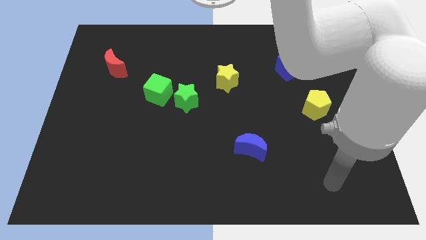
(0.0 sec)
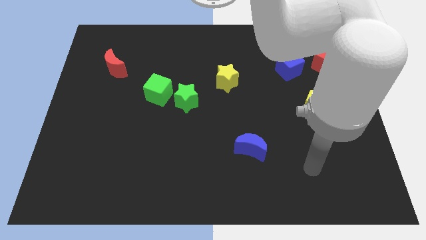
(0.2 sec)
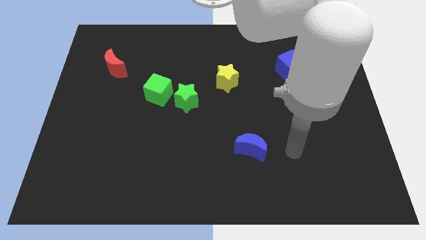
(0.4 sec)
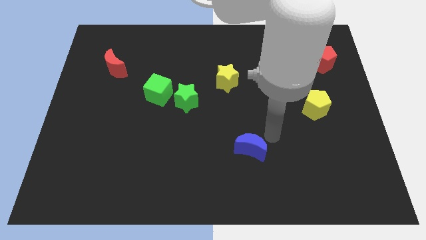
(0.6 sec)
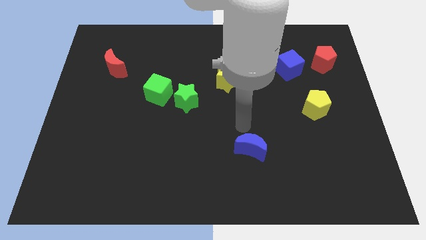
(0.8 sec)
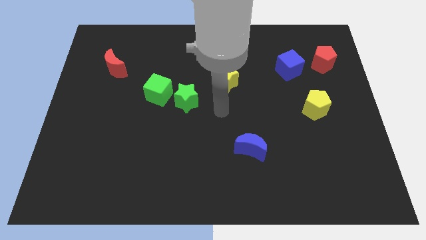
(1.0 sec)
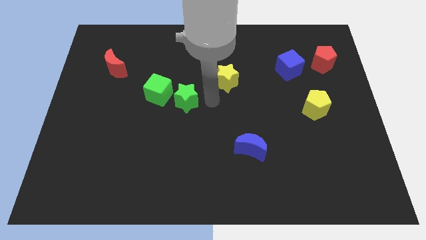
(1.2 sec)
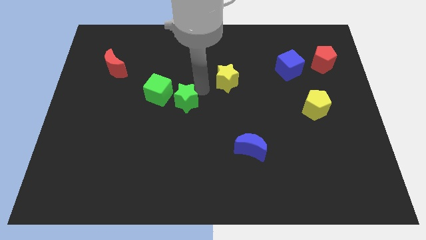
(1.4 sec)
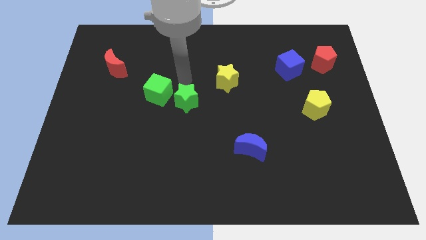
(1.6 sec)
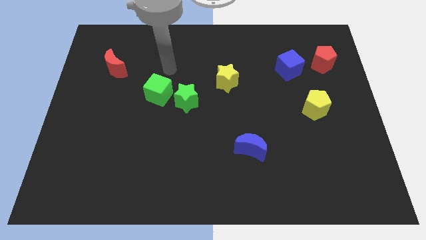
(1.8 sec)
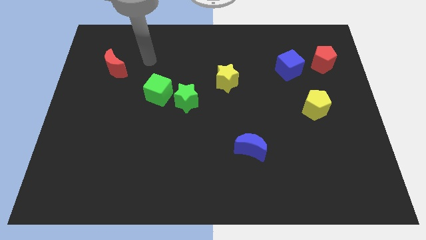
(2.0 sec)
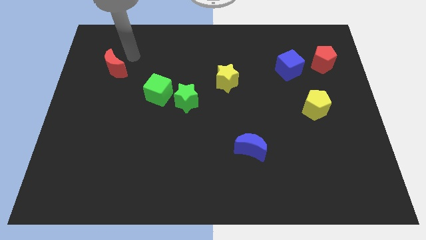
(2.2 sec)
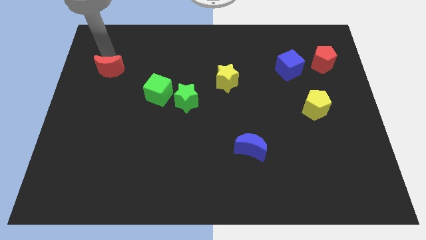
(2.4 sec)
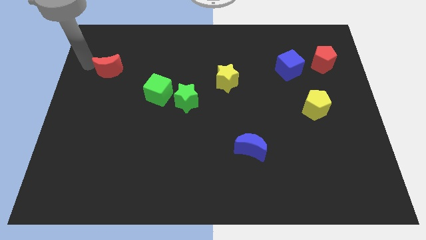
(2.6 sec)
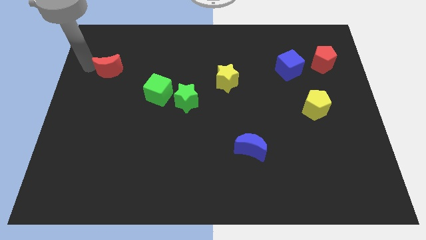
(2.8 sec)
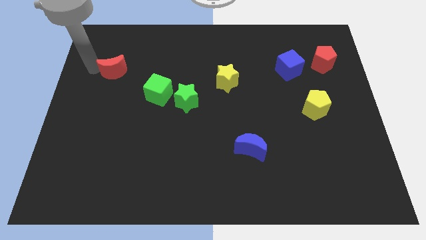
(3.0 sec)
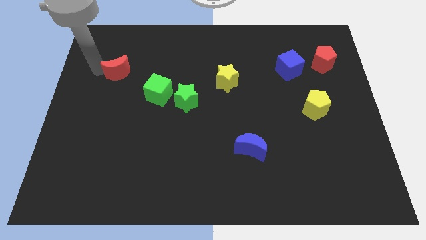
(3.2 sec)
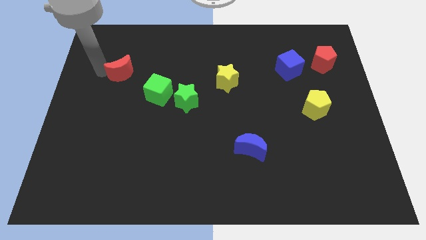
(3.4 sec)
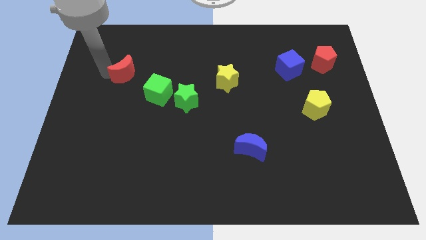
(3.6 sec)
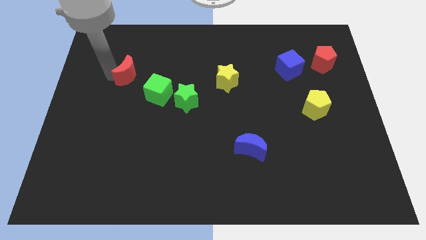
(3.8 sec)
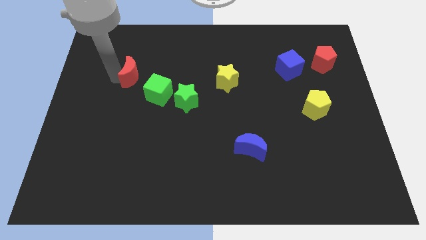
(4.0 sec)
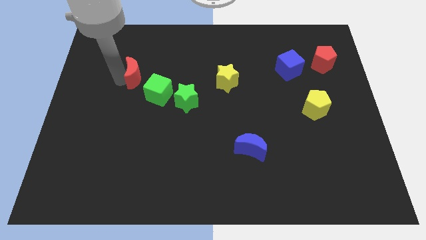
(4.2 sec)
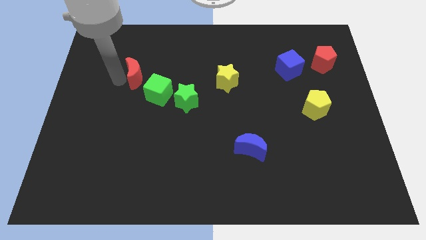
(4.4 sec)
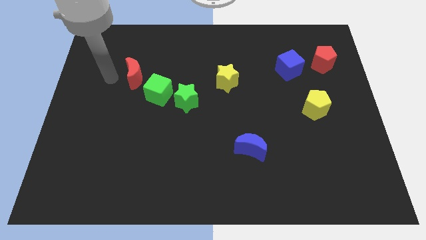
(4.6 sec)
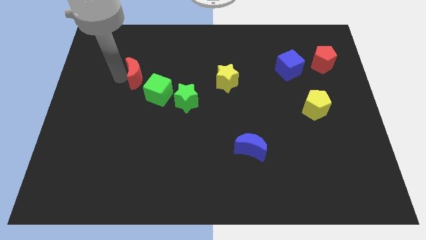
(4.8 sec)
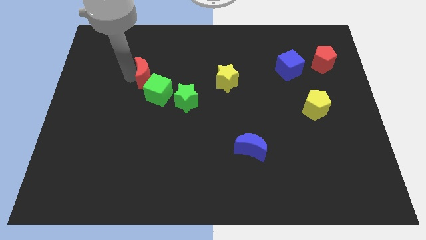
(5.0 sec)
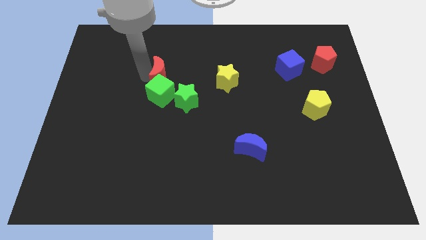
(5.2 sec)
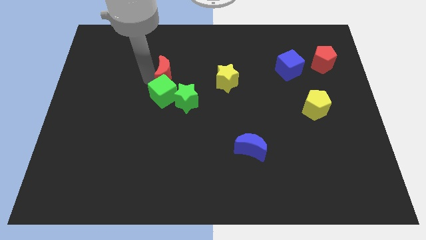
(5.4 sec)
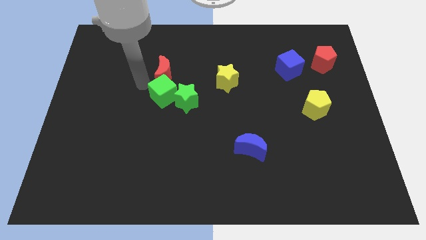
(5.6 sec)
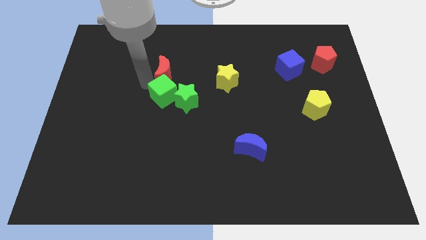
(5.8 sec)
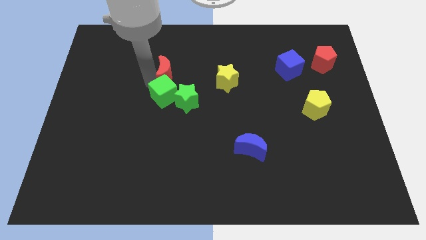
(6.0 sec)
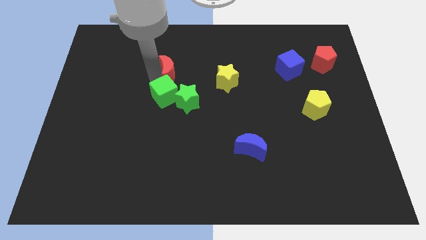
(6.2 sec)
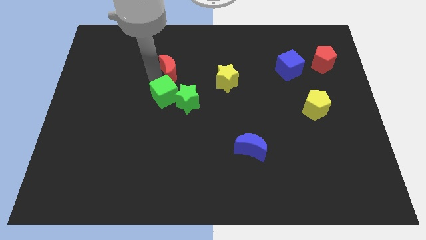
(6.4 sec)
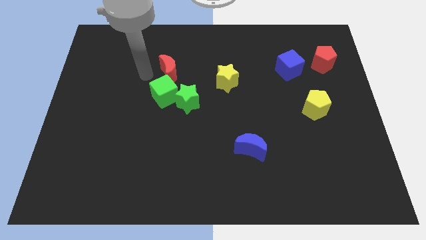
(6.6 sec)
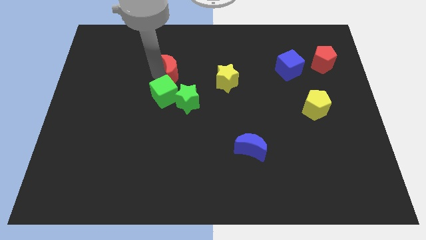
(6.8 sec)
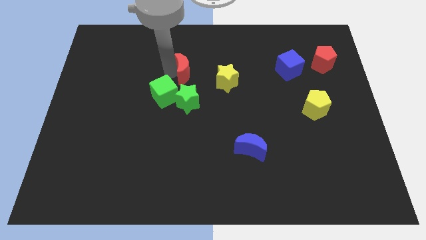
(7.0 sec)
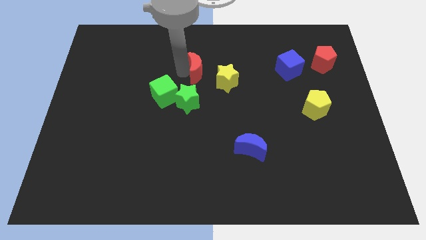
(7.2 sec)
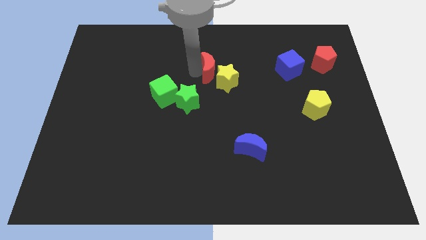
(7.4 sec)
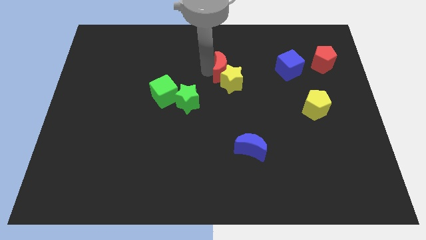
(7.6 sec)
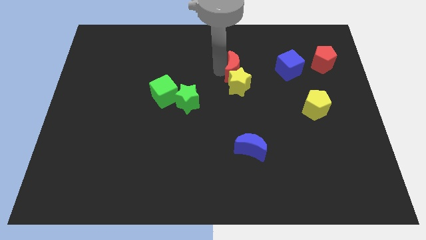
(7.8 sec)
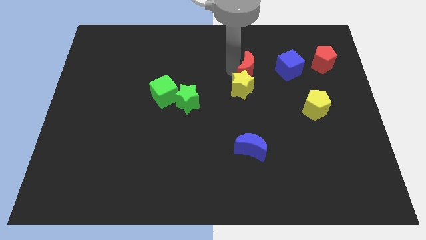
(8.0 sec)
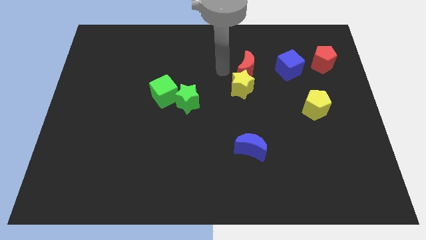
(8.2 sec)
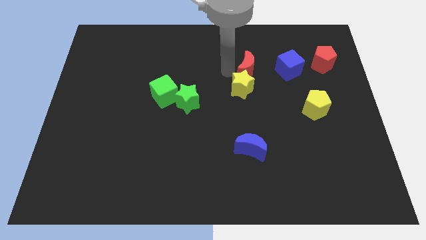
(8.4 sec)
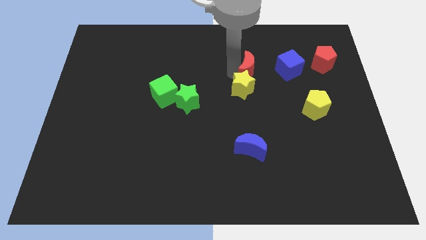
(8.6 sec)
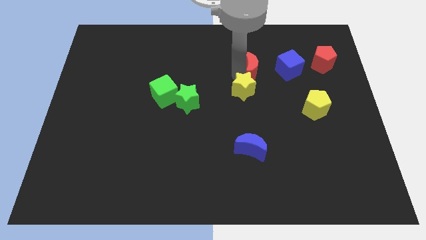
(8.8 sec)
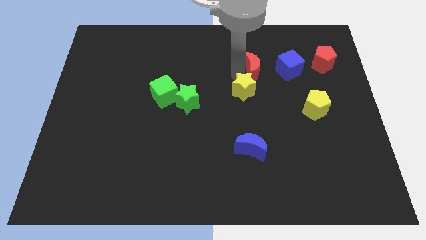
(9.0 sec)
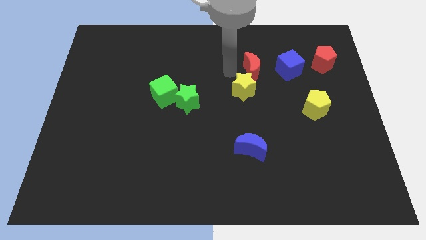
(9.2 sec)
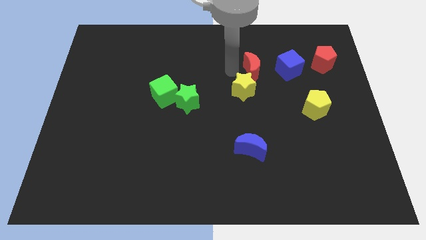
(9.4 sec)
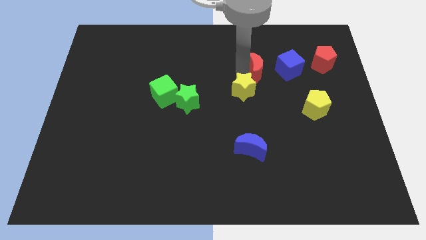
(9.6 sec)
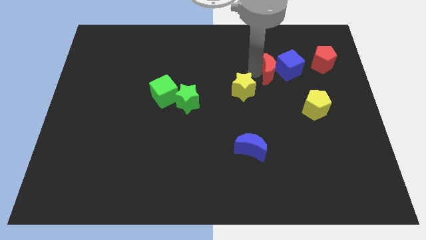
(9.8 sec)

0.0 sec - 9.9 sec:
put the red moon next to the blue cube

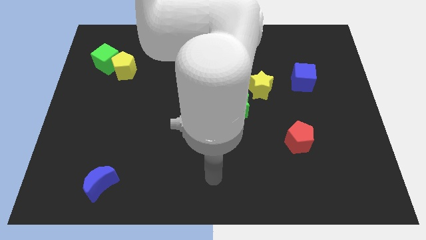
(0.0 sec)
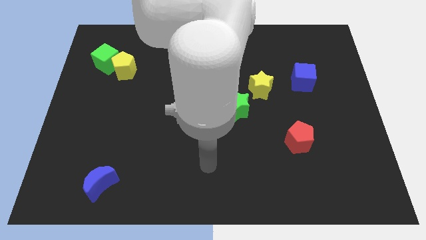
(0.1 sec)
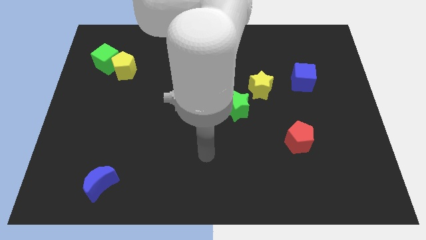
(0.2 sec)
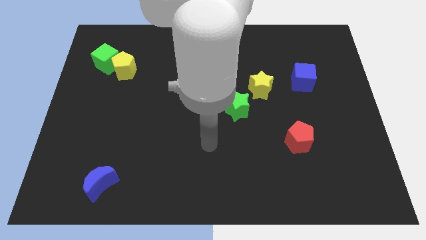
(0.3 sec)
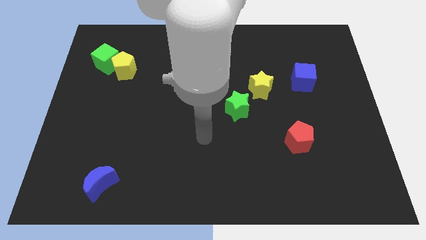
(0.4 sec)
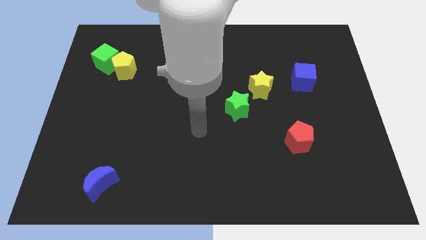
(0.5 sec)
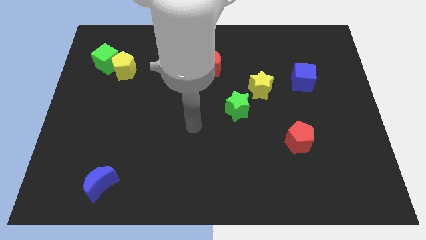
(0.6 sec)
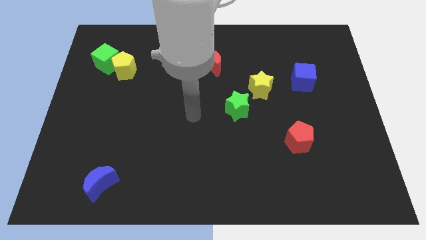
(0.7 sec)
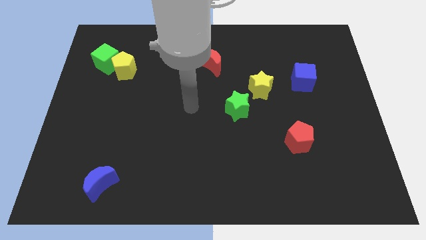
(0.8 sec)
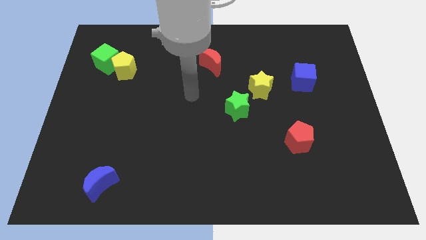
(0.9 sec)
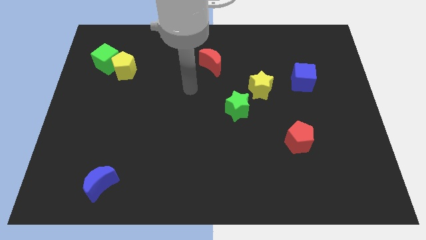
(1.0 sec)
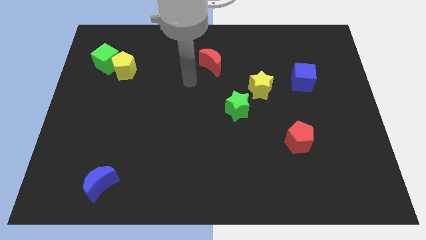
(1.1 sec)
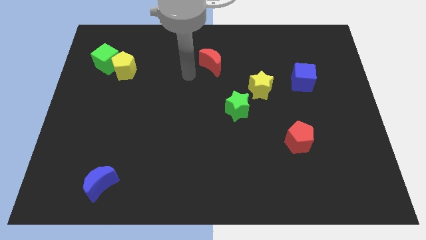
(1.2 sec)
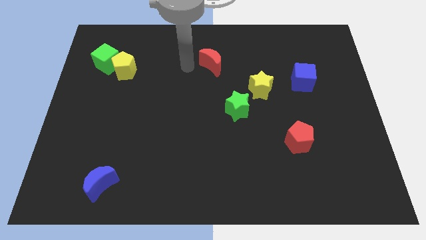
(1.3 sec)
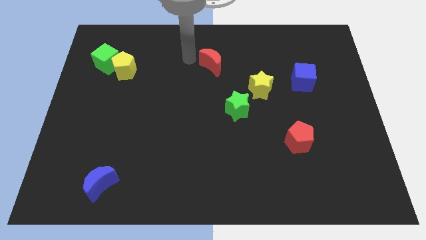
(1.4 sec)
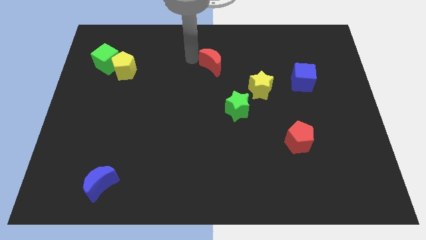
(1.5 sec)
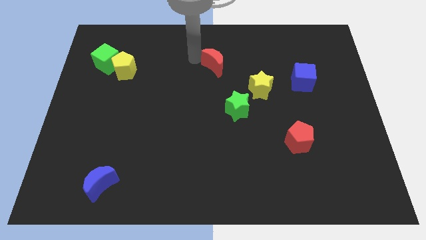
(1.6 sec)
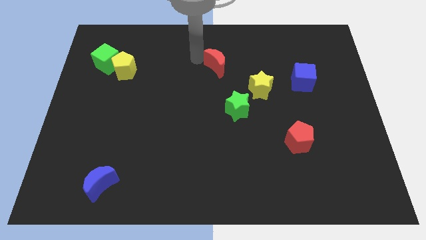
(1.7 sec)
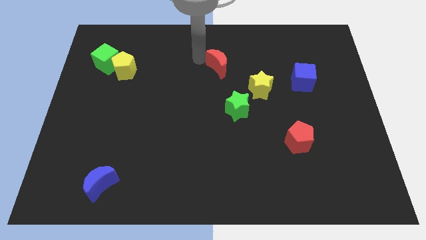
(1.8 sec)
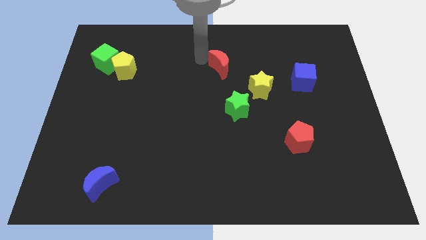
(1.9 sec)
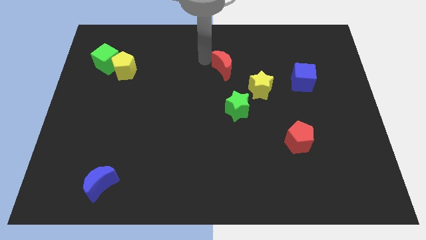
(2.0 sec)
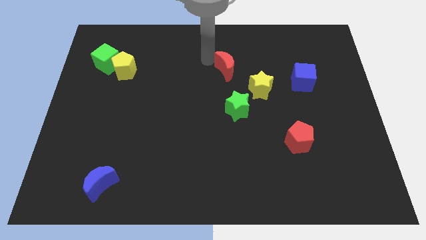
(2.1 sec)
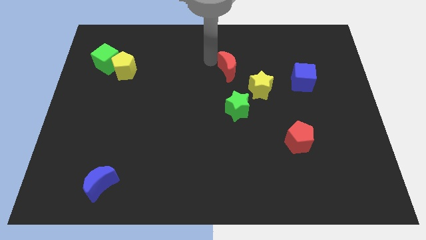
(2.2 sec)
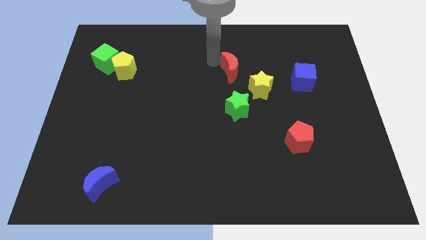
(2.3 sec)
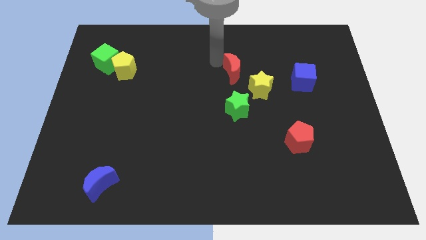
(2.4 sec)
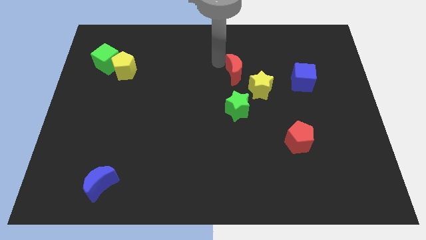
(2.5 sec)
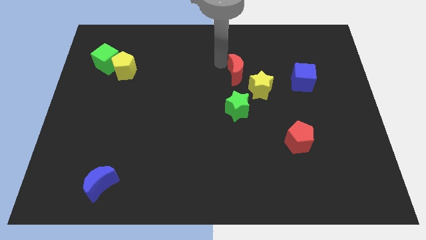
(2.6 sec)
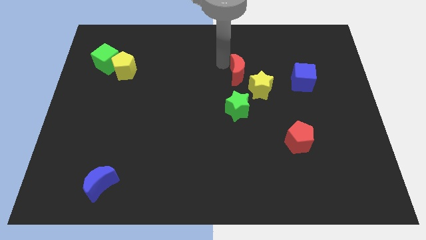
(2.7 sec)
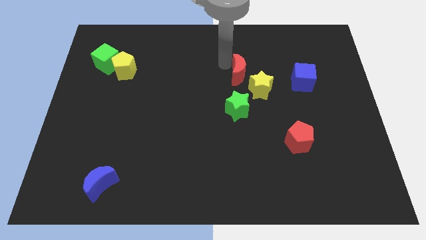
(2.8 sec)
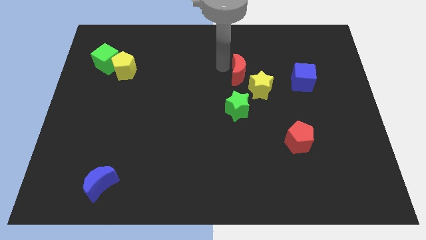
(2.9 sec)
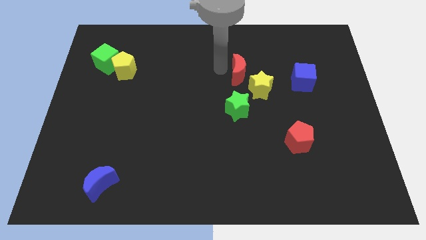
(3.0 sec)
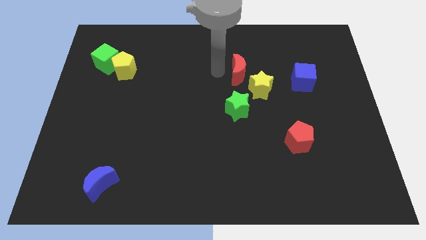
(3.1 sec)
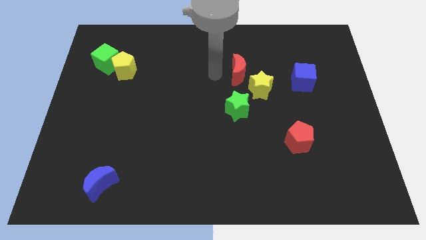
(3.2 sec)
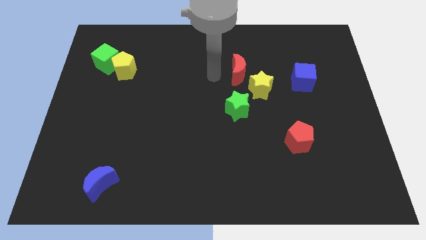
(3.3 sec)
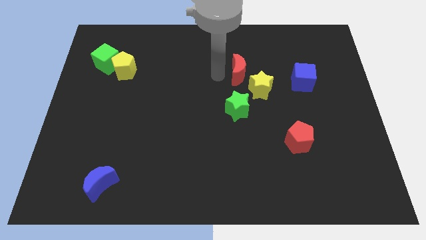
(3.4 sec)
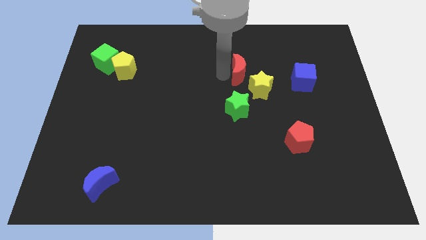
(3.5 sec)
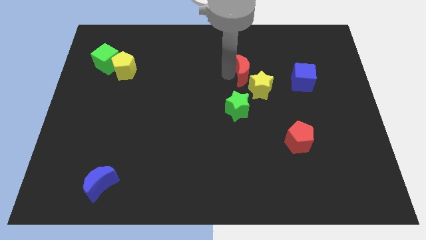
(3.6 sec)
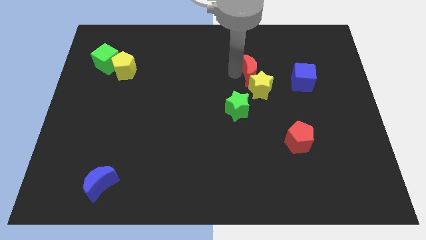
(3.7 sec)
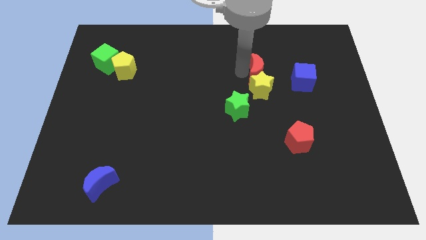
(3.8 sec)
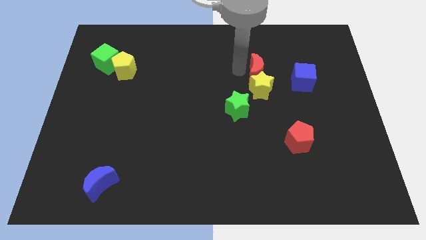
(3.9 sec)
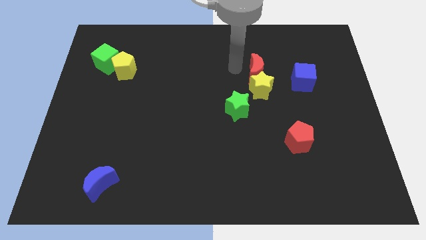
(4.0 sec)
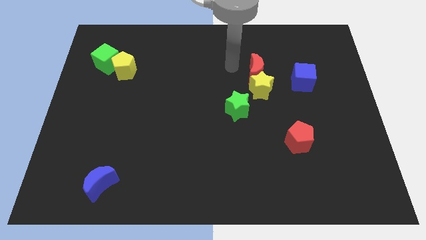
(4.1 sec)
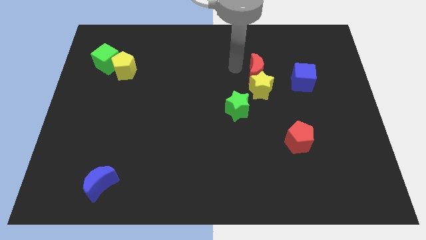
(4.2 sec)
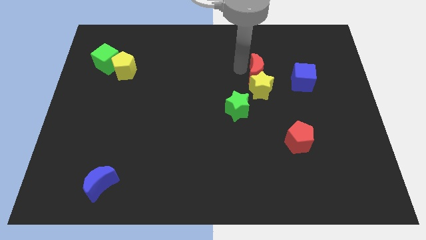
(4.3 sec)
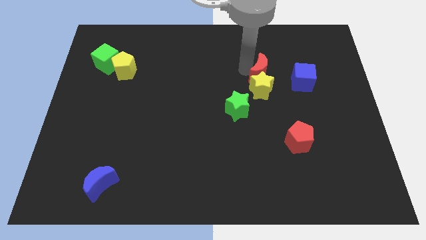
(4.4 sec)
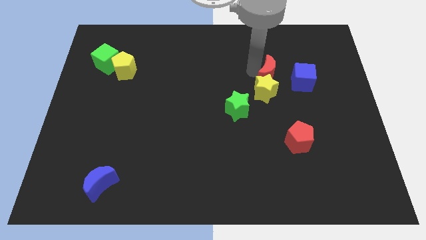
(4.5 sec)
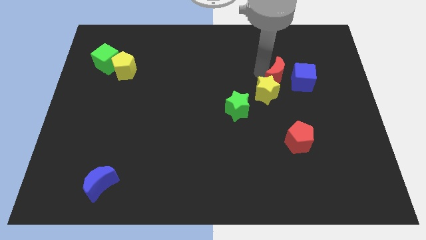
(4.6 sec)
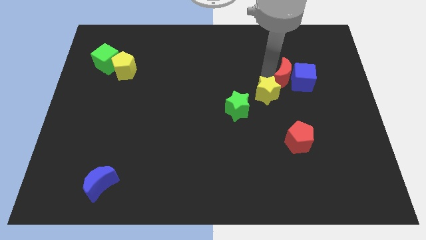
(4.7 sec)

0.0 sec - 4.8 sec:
put the red moon close to the blue cube
